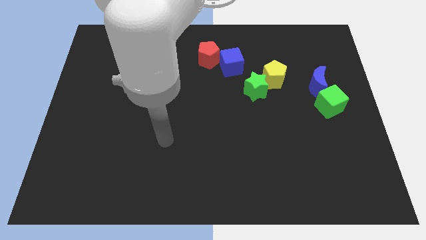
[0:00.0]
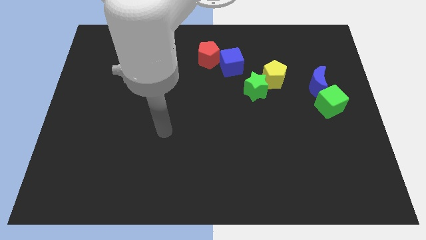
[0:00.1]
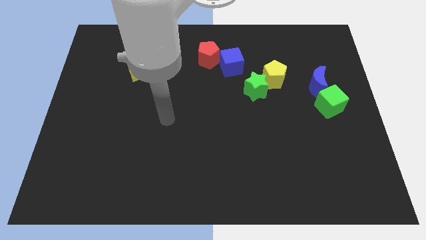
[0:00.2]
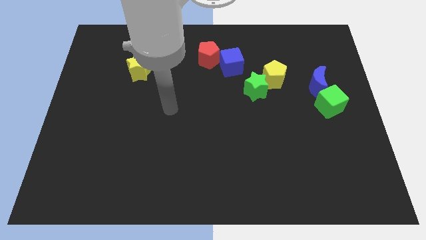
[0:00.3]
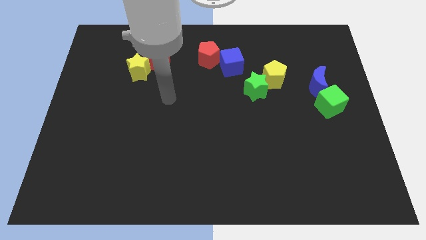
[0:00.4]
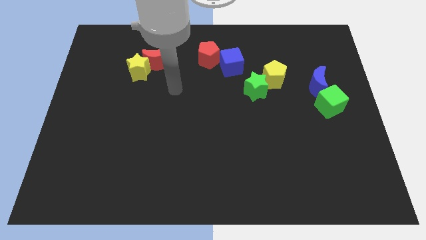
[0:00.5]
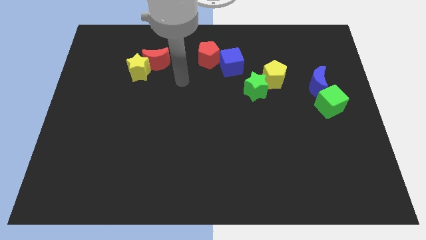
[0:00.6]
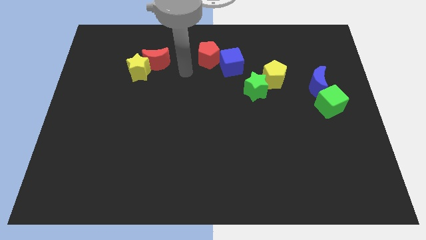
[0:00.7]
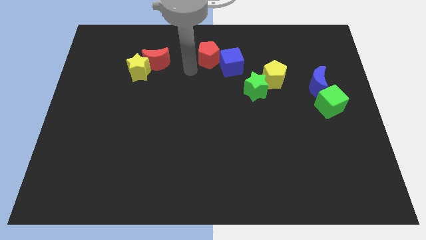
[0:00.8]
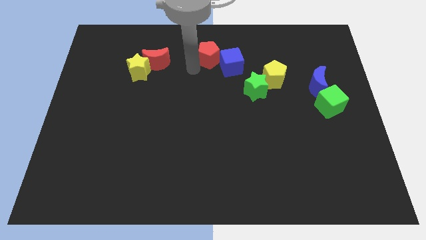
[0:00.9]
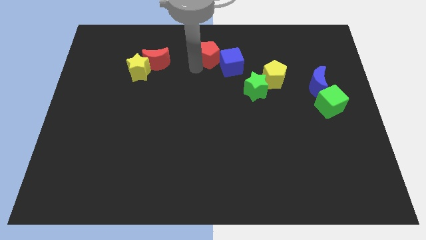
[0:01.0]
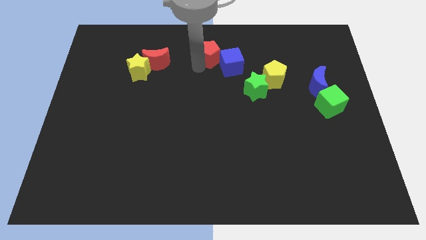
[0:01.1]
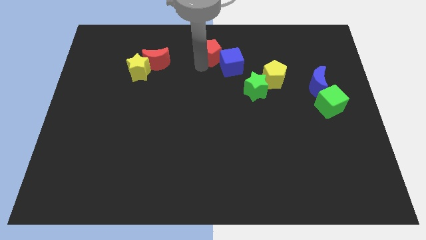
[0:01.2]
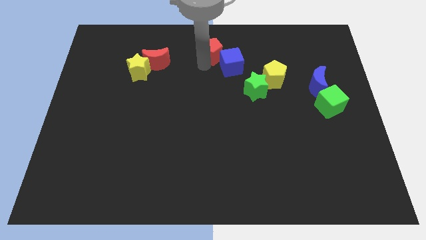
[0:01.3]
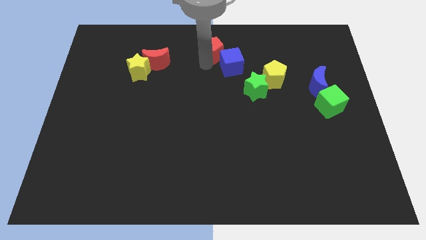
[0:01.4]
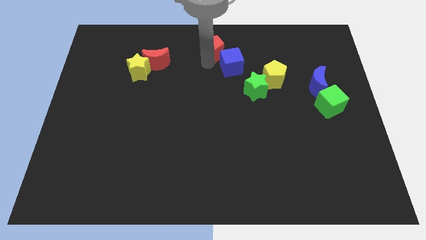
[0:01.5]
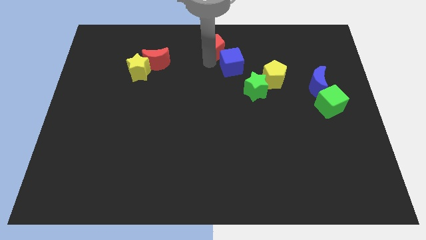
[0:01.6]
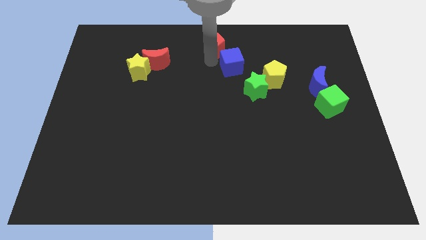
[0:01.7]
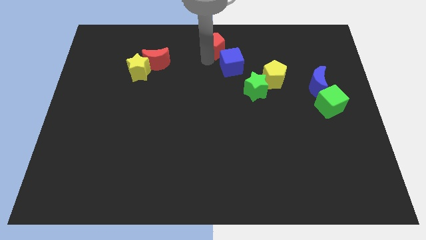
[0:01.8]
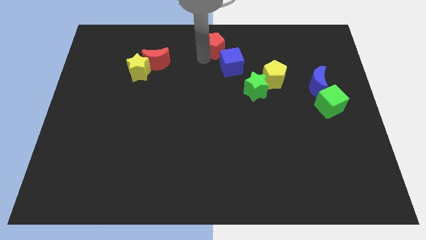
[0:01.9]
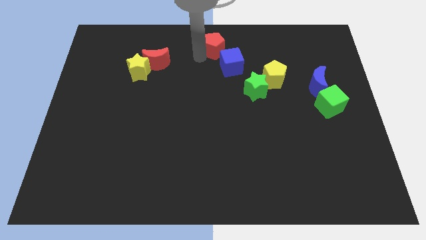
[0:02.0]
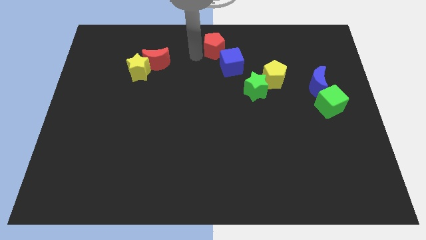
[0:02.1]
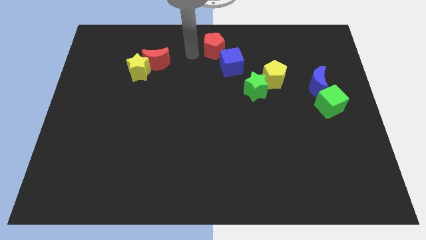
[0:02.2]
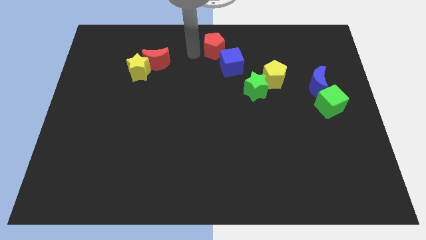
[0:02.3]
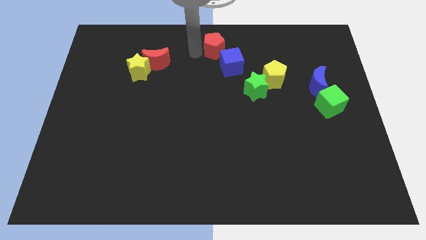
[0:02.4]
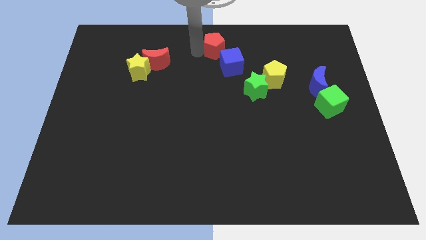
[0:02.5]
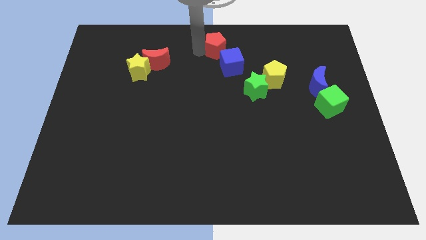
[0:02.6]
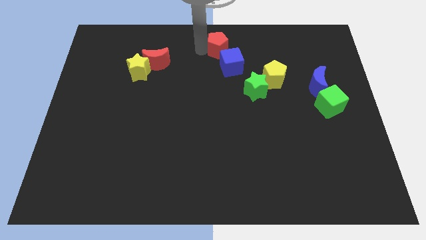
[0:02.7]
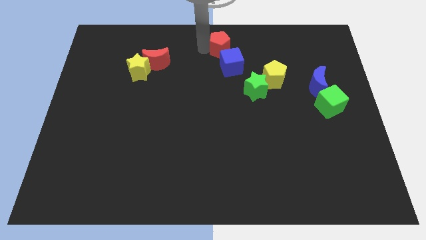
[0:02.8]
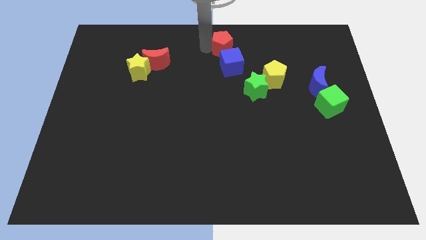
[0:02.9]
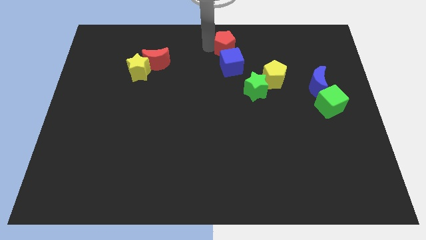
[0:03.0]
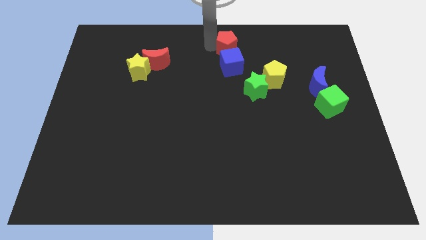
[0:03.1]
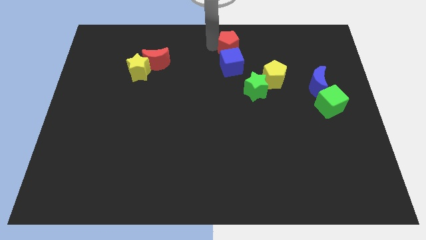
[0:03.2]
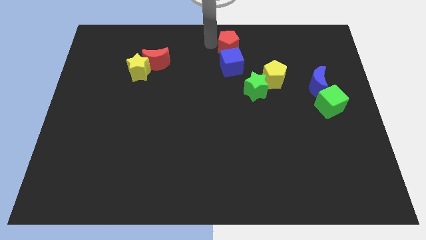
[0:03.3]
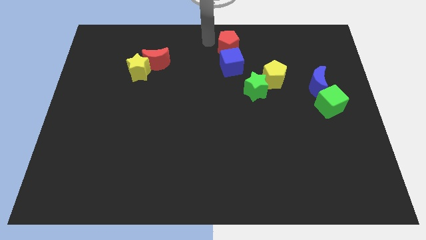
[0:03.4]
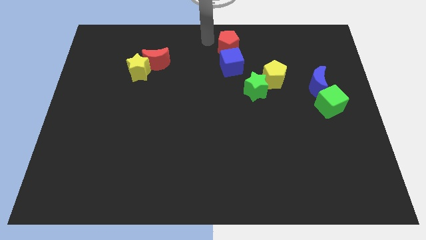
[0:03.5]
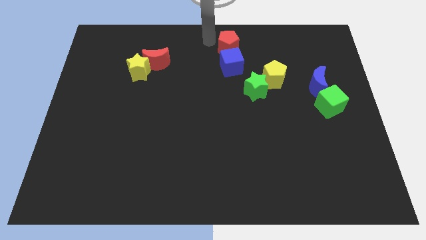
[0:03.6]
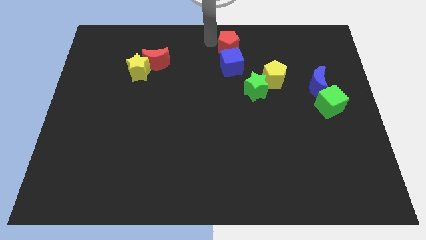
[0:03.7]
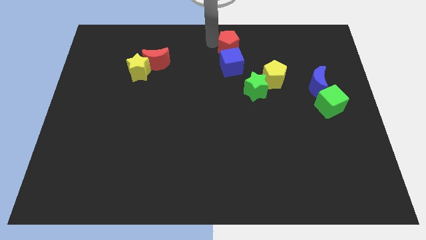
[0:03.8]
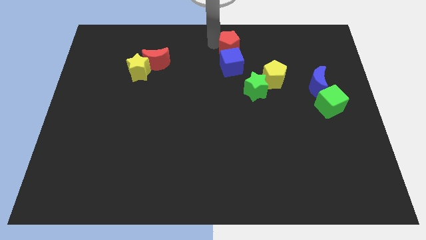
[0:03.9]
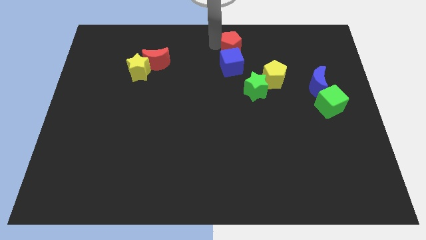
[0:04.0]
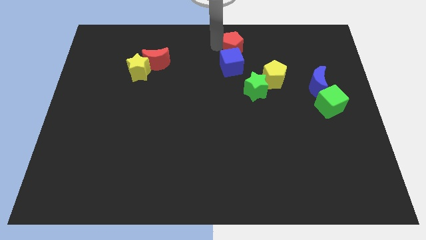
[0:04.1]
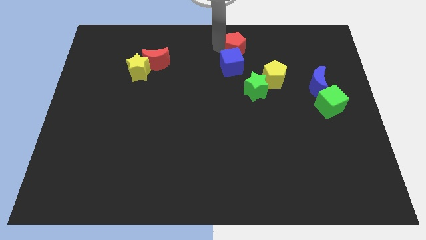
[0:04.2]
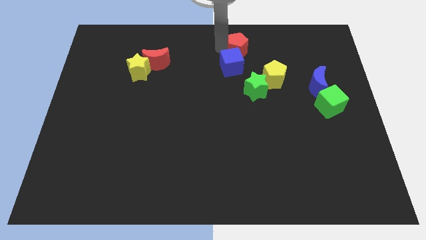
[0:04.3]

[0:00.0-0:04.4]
slide the red pentagon right slightly

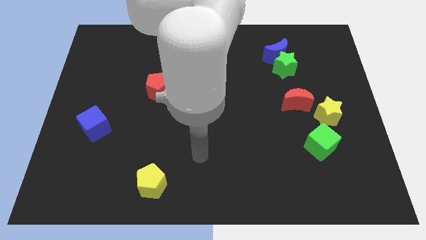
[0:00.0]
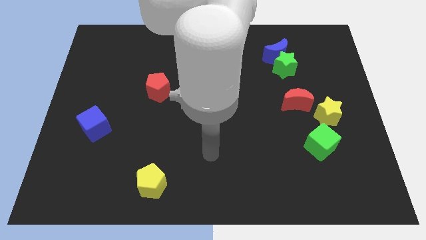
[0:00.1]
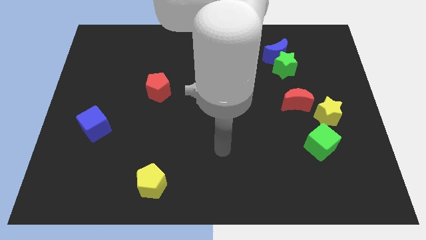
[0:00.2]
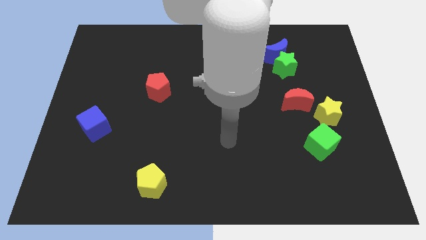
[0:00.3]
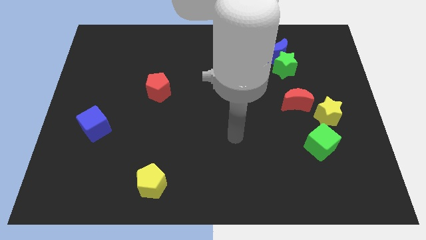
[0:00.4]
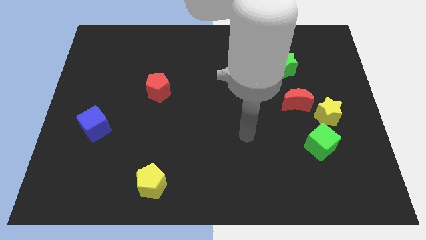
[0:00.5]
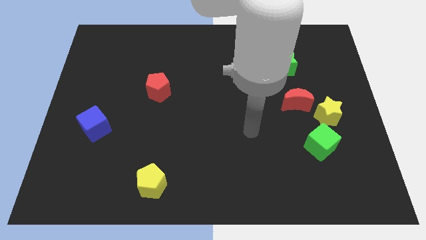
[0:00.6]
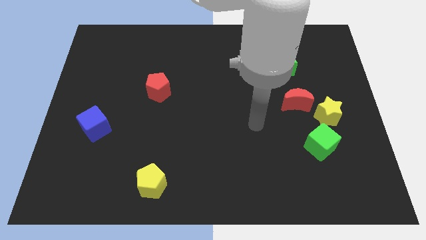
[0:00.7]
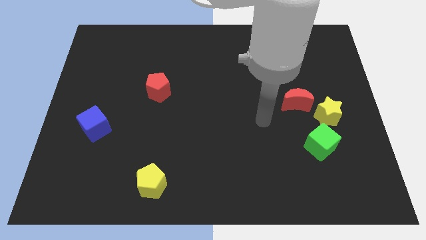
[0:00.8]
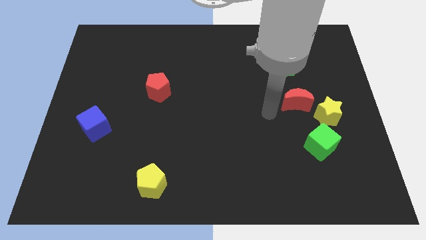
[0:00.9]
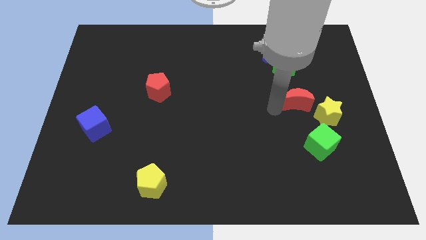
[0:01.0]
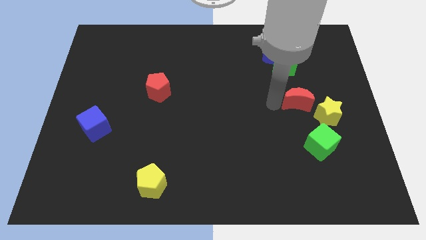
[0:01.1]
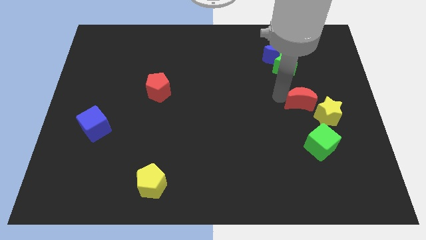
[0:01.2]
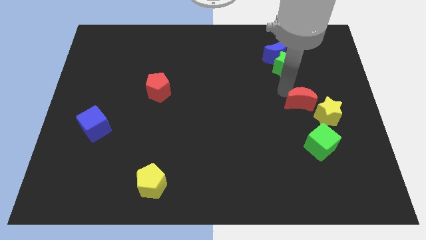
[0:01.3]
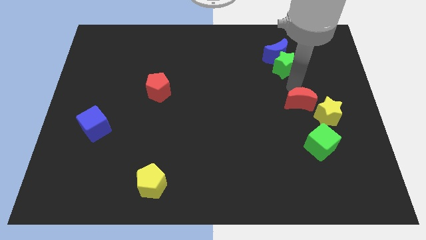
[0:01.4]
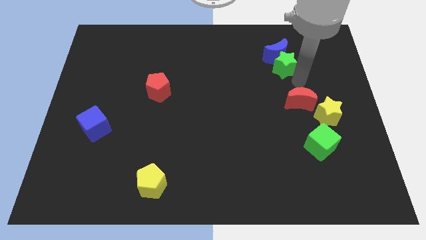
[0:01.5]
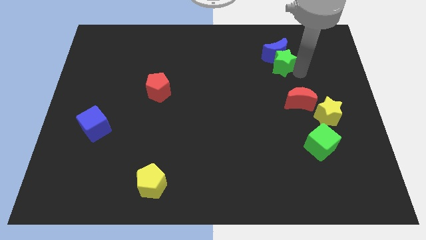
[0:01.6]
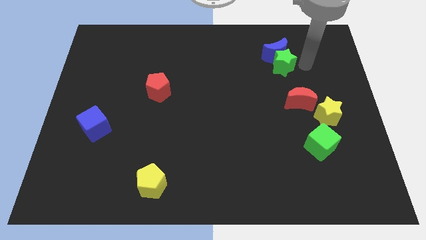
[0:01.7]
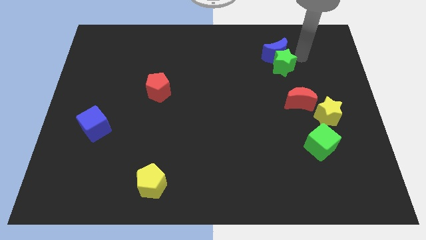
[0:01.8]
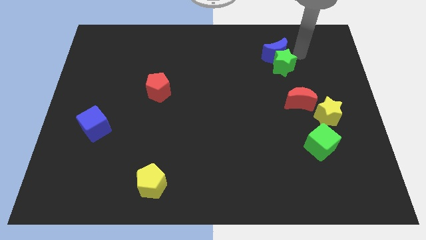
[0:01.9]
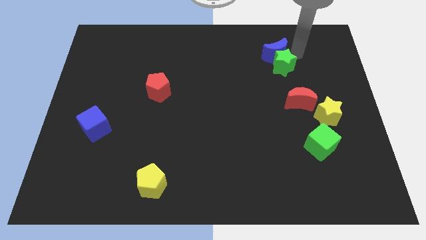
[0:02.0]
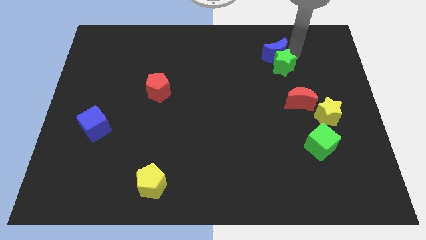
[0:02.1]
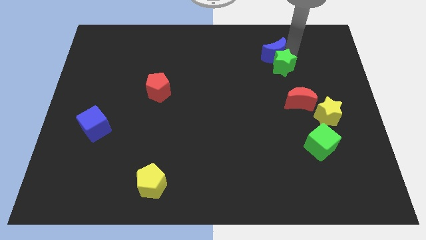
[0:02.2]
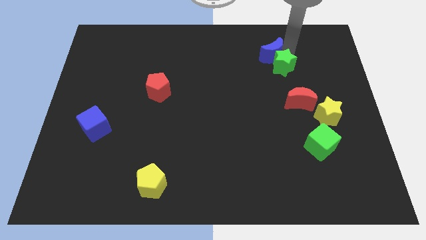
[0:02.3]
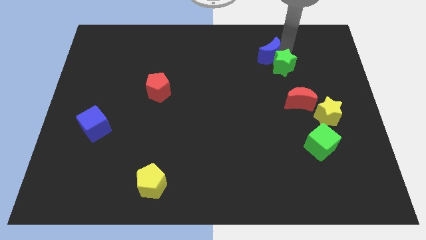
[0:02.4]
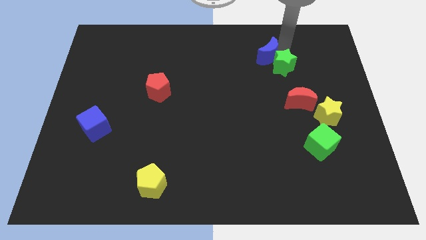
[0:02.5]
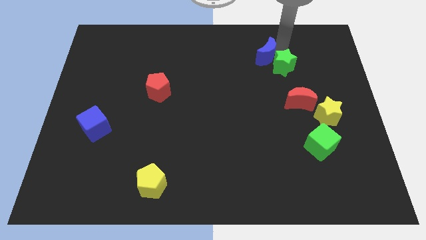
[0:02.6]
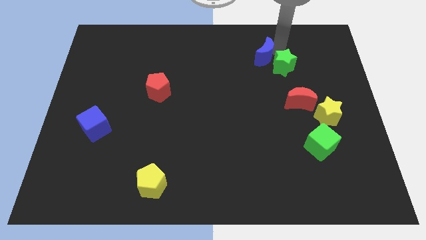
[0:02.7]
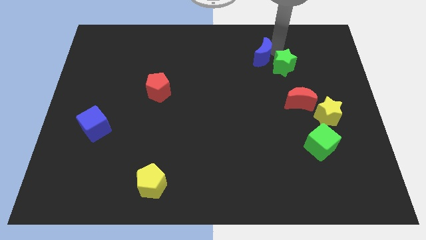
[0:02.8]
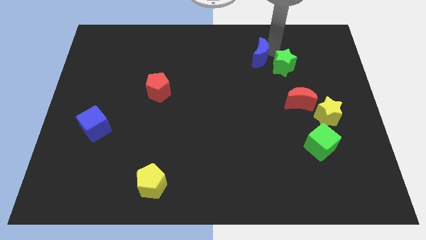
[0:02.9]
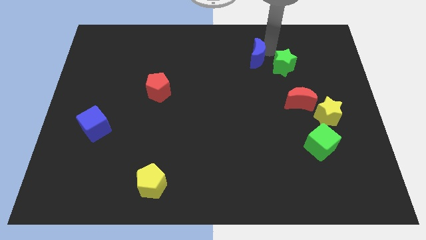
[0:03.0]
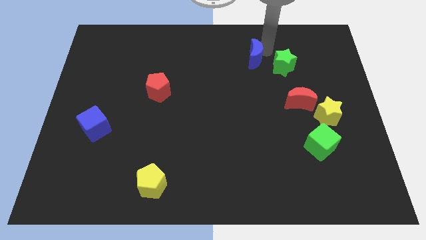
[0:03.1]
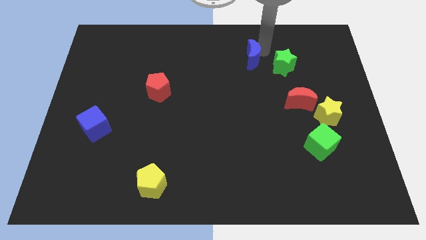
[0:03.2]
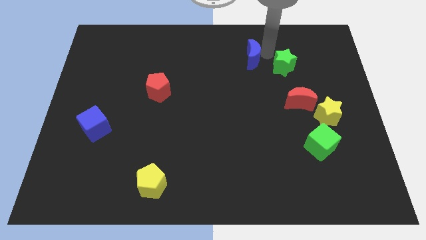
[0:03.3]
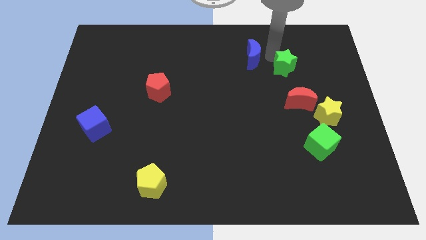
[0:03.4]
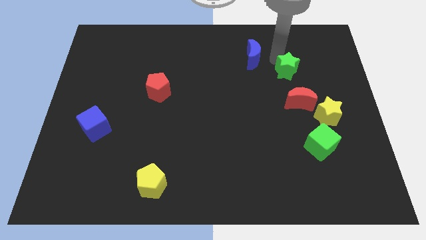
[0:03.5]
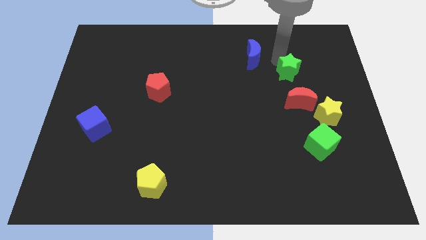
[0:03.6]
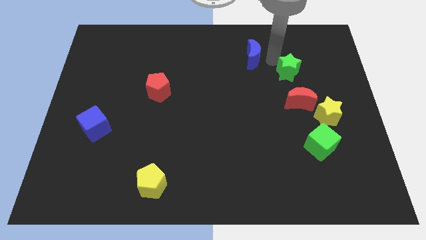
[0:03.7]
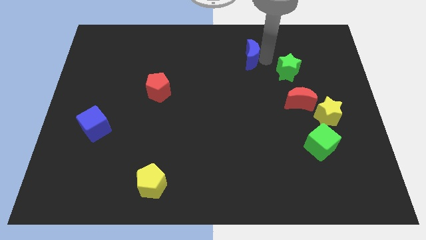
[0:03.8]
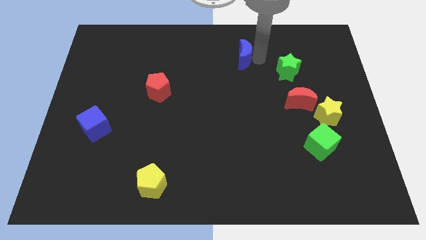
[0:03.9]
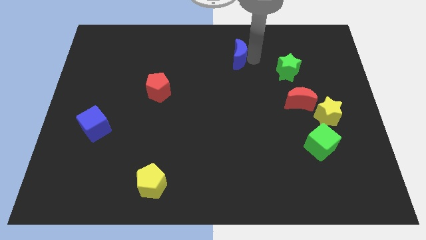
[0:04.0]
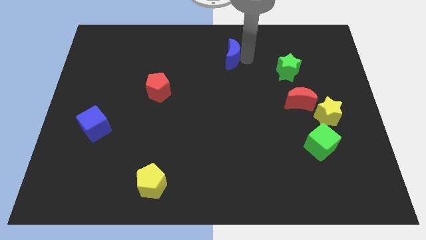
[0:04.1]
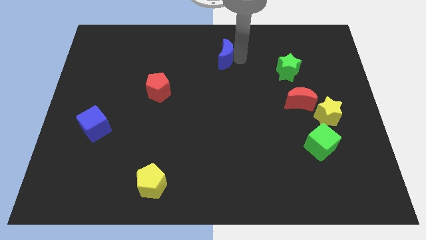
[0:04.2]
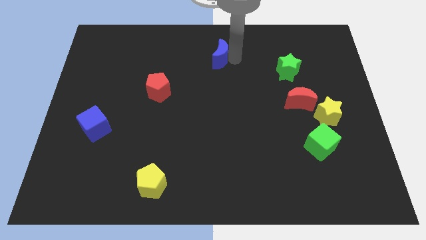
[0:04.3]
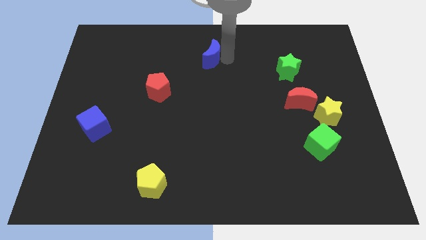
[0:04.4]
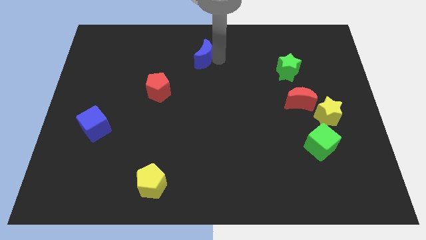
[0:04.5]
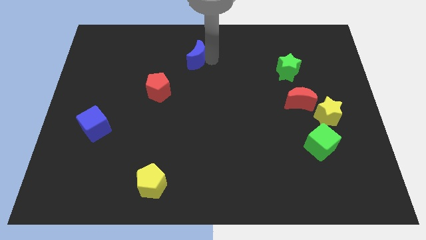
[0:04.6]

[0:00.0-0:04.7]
move the blue moon left
